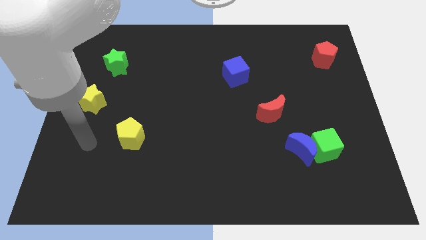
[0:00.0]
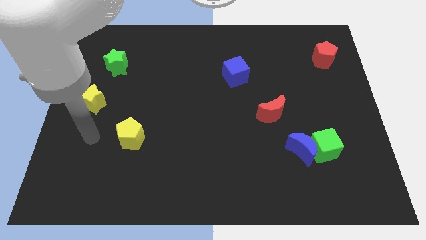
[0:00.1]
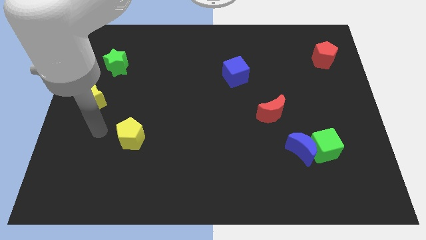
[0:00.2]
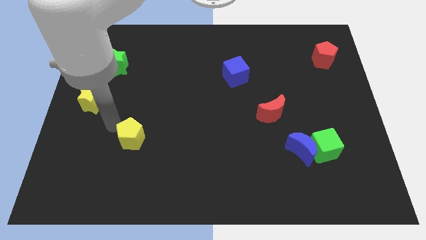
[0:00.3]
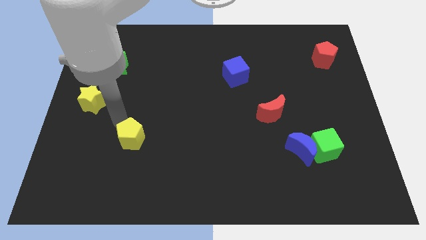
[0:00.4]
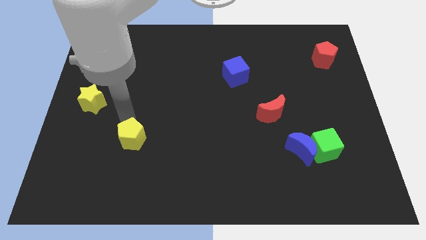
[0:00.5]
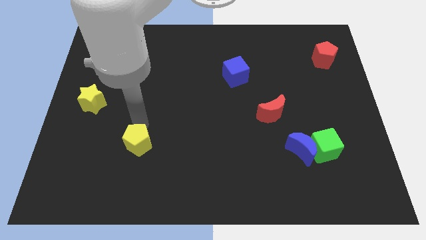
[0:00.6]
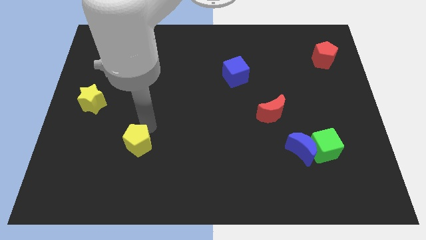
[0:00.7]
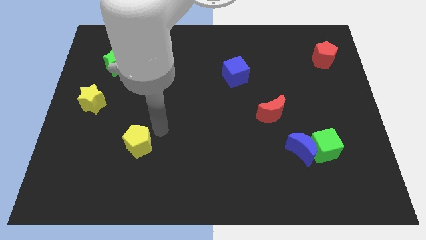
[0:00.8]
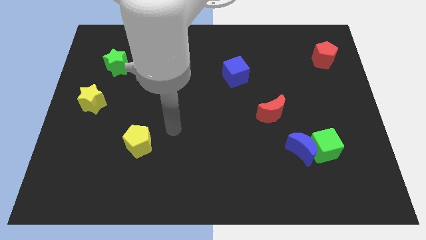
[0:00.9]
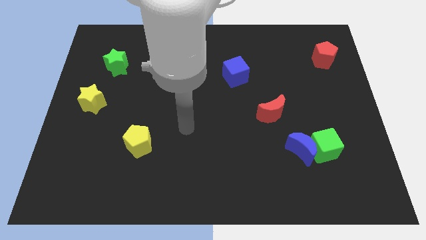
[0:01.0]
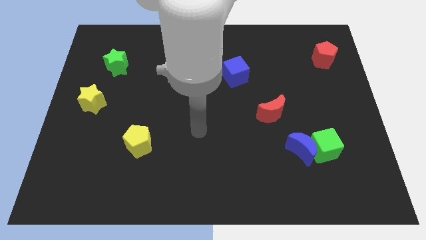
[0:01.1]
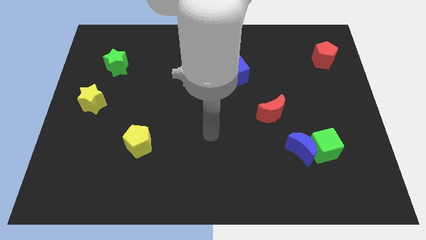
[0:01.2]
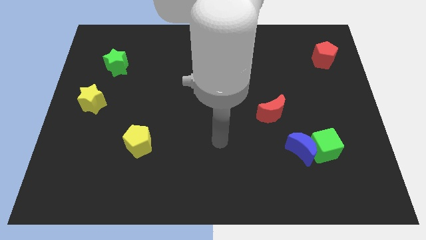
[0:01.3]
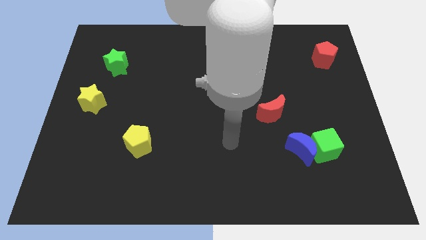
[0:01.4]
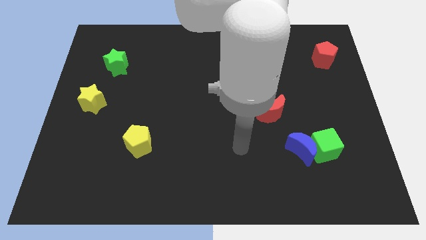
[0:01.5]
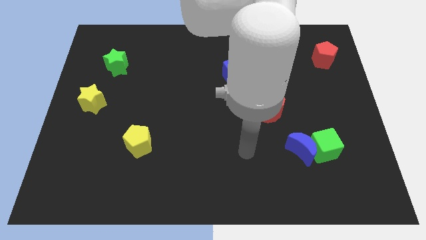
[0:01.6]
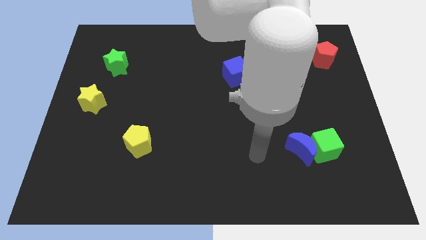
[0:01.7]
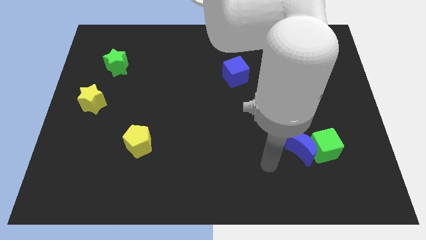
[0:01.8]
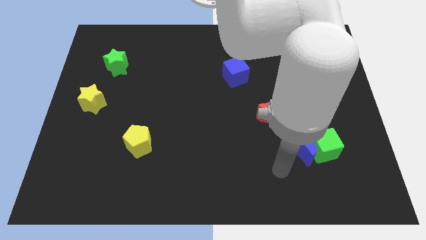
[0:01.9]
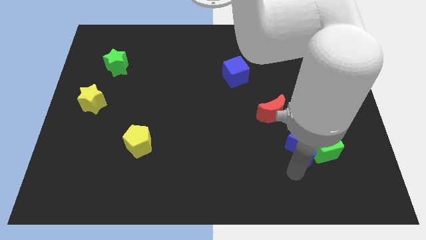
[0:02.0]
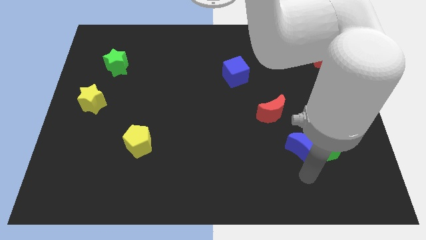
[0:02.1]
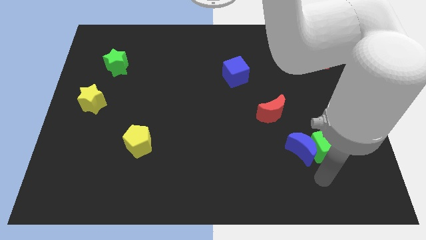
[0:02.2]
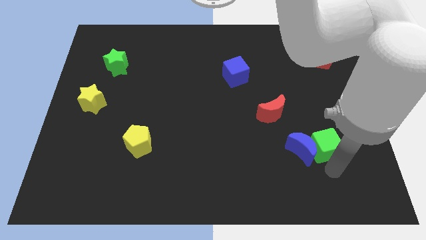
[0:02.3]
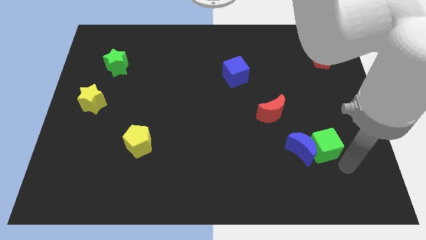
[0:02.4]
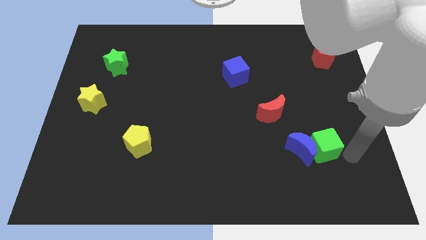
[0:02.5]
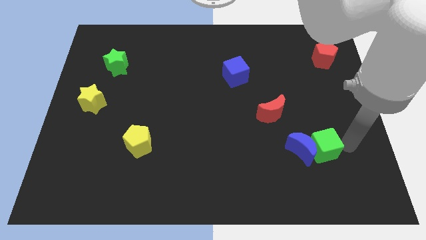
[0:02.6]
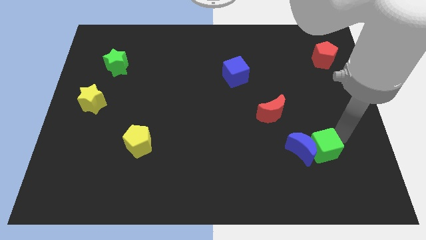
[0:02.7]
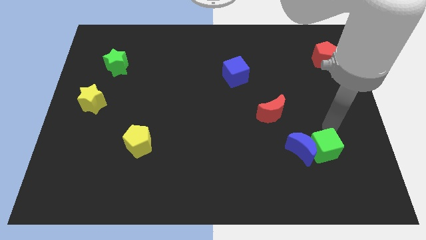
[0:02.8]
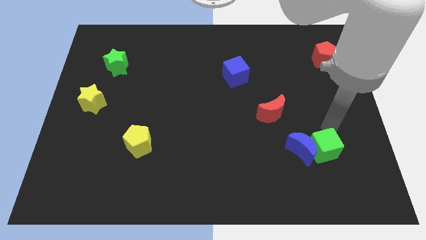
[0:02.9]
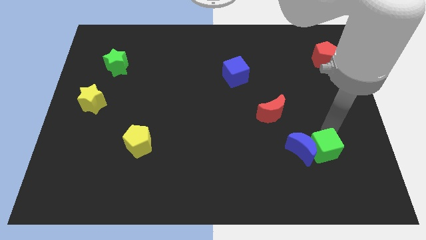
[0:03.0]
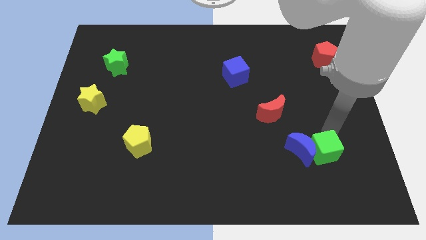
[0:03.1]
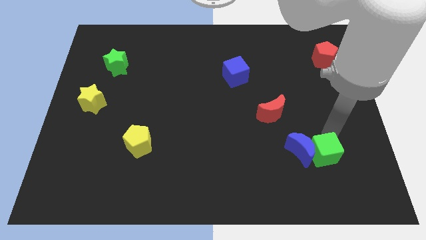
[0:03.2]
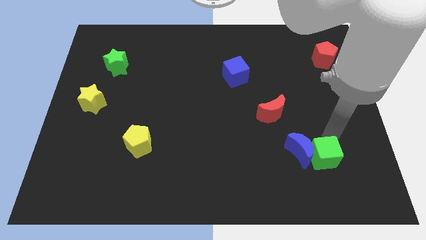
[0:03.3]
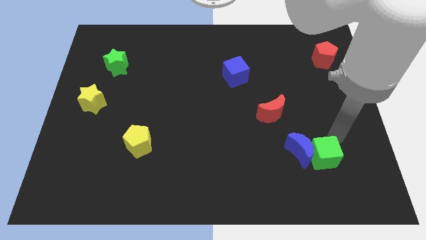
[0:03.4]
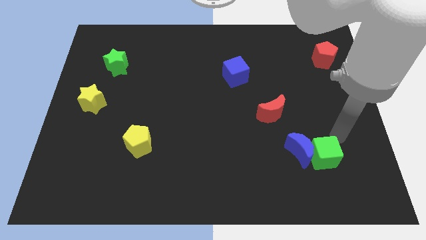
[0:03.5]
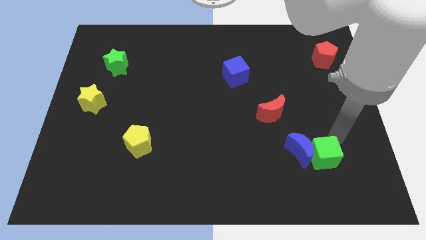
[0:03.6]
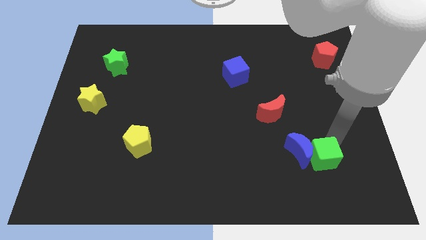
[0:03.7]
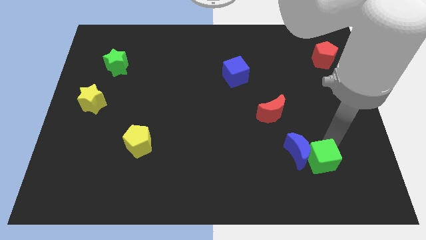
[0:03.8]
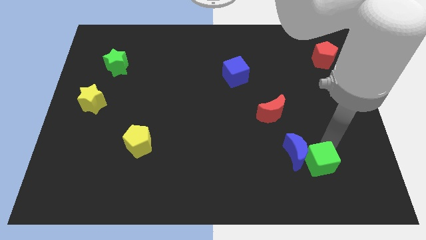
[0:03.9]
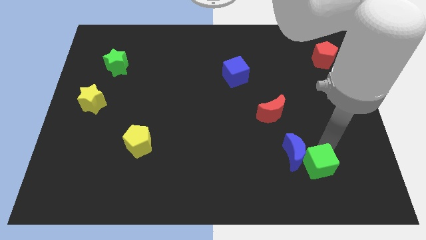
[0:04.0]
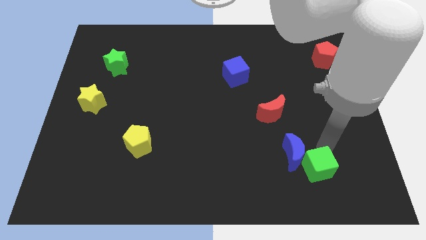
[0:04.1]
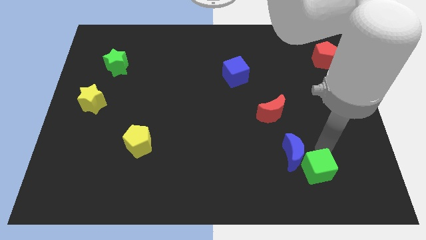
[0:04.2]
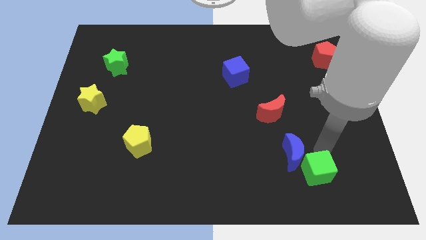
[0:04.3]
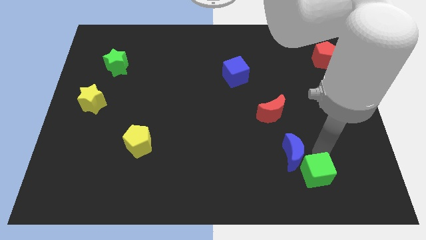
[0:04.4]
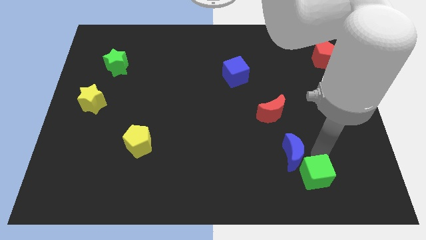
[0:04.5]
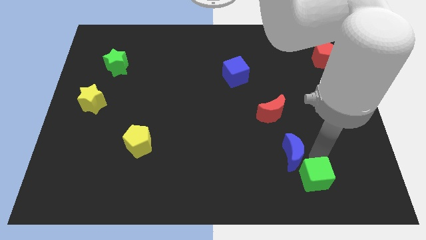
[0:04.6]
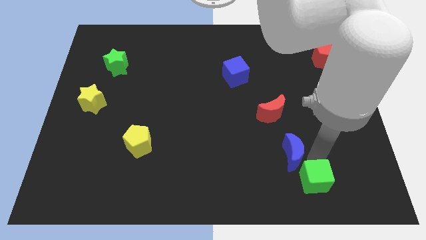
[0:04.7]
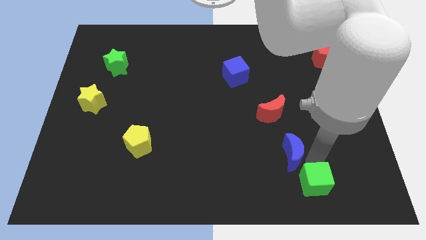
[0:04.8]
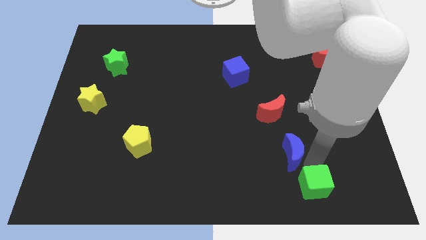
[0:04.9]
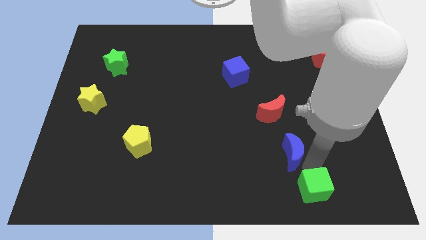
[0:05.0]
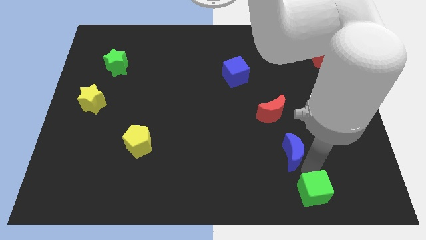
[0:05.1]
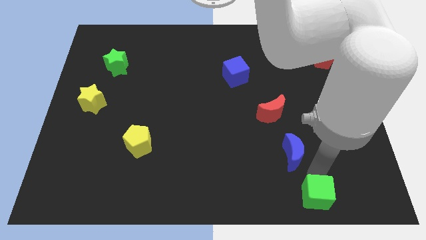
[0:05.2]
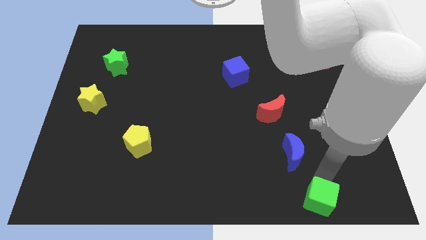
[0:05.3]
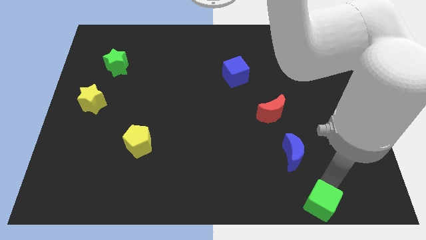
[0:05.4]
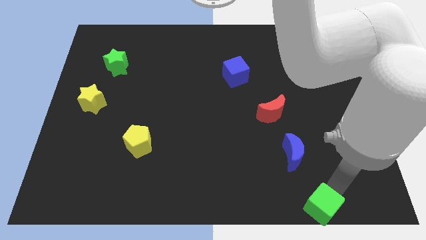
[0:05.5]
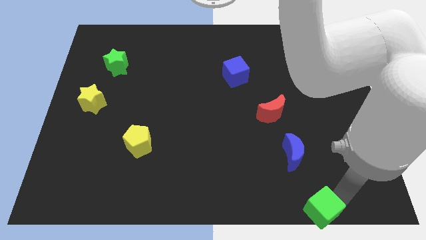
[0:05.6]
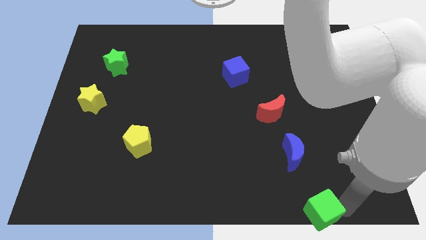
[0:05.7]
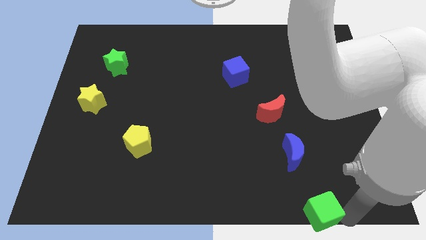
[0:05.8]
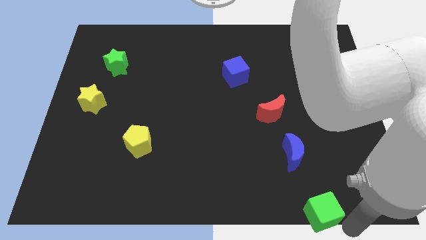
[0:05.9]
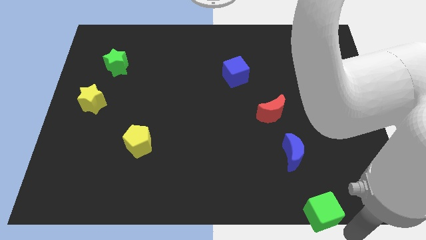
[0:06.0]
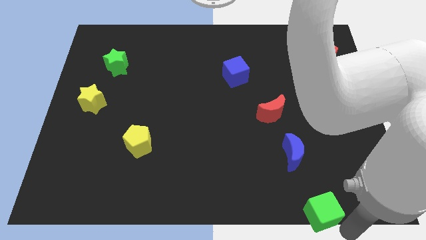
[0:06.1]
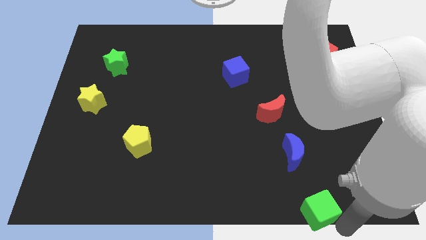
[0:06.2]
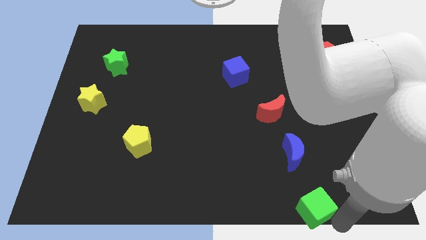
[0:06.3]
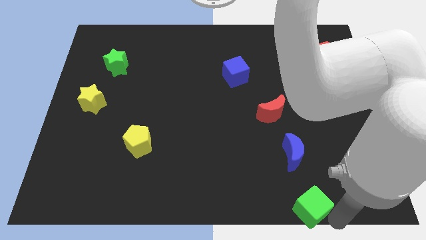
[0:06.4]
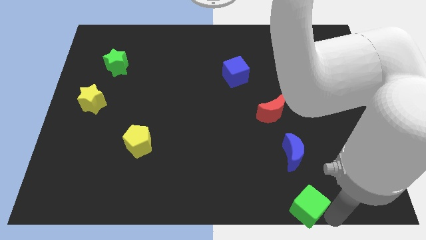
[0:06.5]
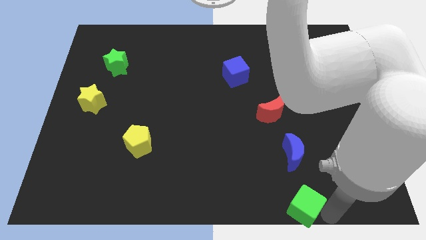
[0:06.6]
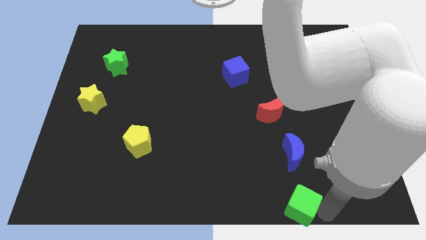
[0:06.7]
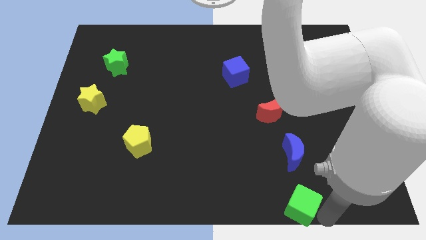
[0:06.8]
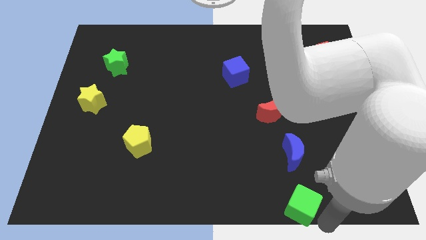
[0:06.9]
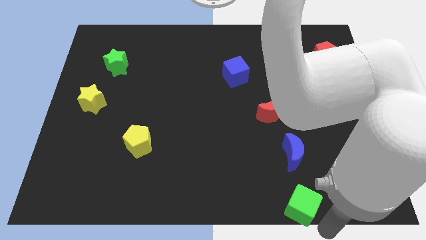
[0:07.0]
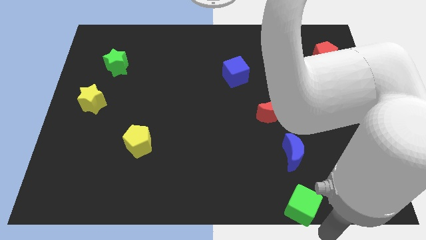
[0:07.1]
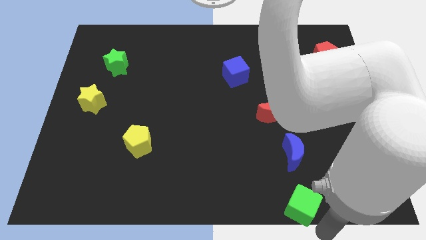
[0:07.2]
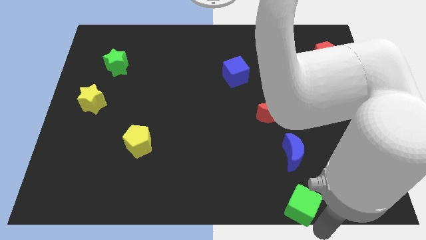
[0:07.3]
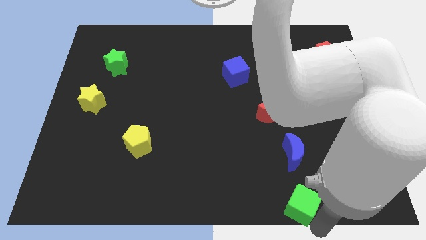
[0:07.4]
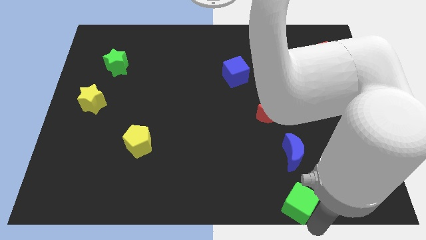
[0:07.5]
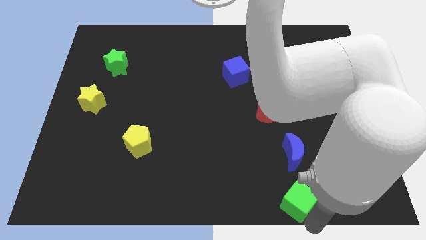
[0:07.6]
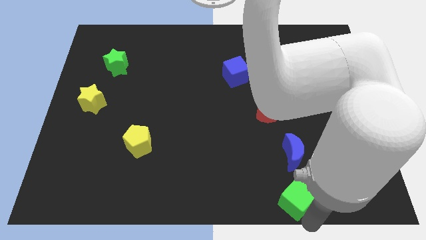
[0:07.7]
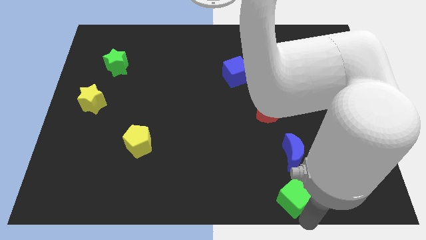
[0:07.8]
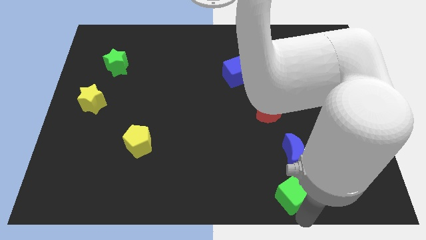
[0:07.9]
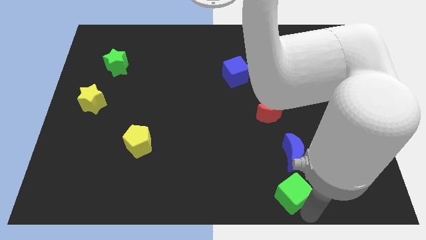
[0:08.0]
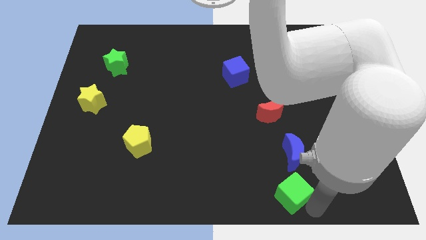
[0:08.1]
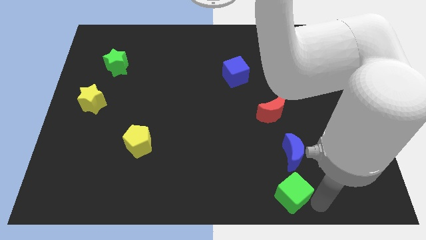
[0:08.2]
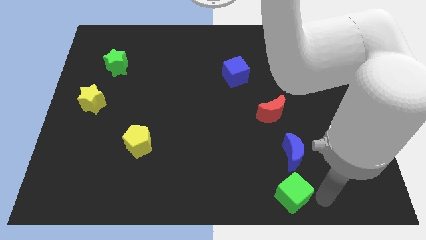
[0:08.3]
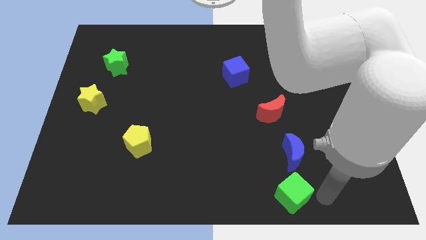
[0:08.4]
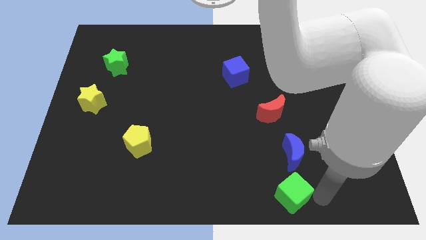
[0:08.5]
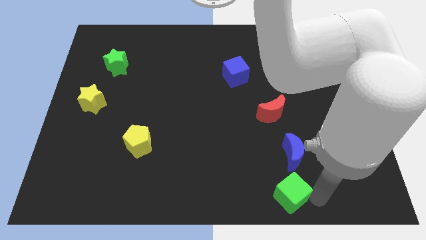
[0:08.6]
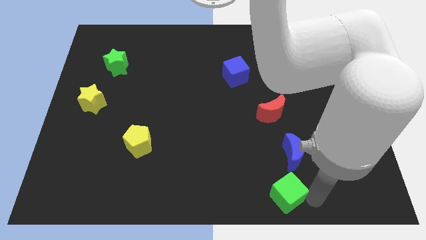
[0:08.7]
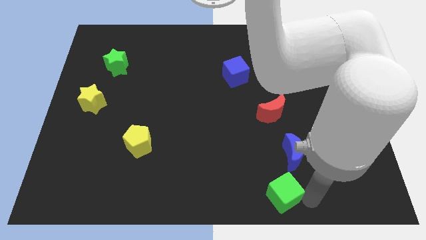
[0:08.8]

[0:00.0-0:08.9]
push the green cube to the bottom
